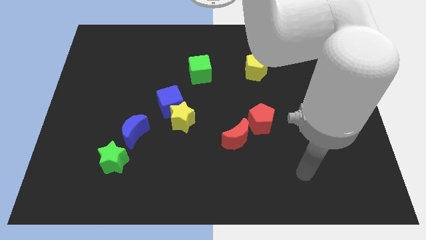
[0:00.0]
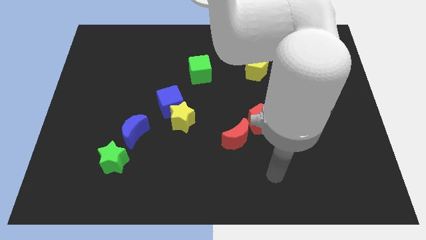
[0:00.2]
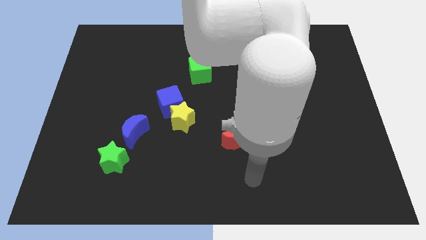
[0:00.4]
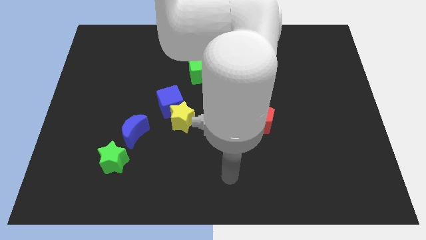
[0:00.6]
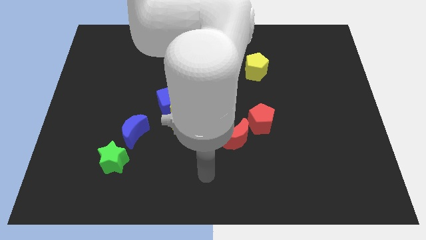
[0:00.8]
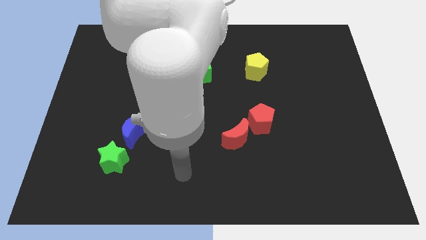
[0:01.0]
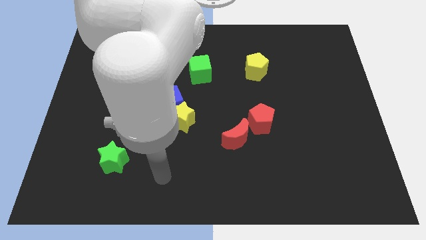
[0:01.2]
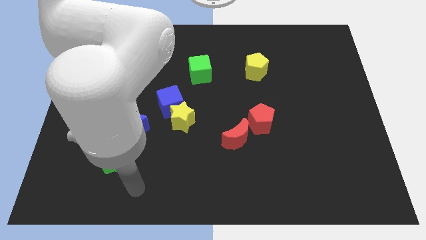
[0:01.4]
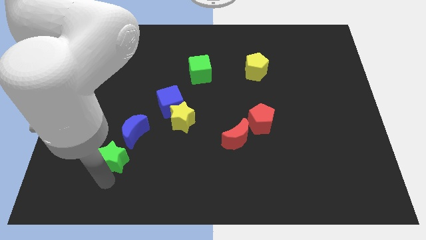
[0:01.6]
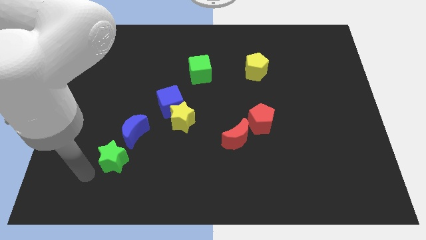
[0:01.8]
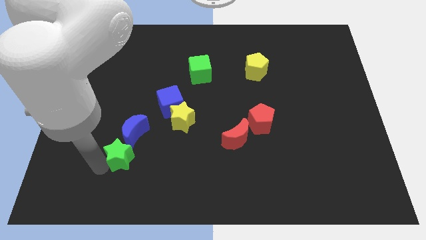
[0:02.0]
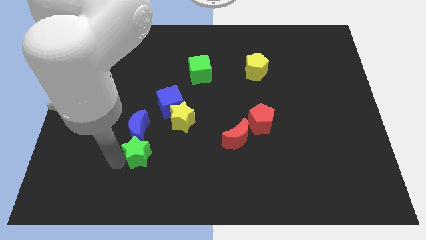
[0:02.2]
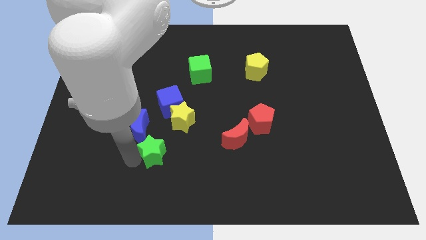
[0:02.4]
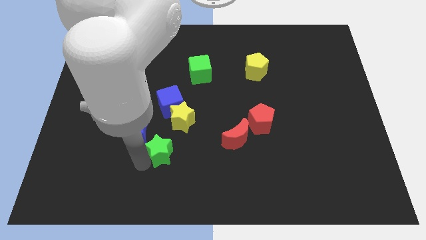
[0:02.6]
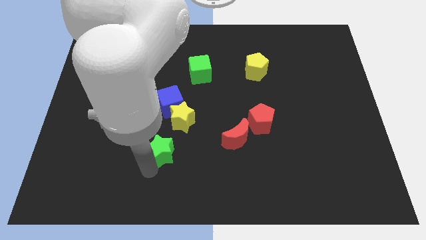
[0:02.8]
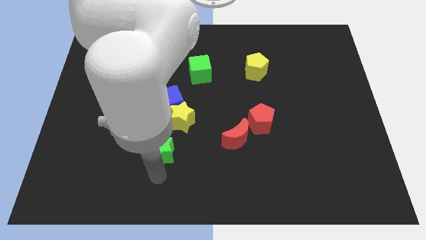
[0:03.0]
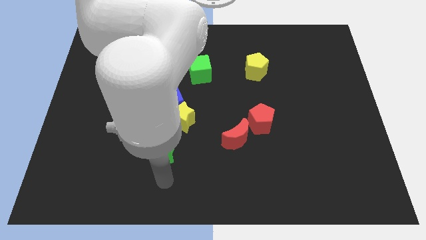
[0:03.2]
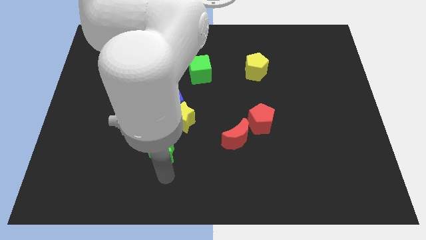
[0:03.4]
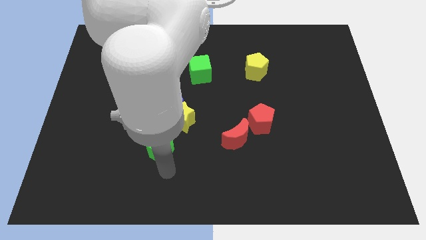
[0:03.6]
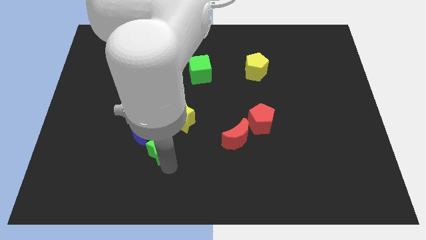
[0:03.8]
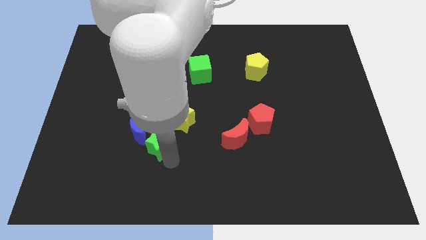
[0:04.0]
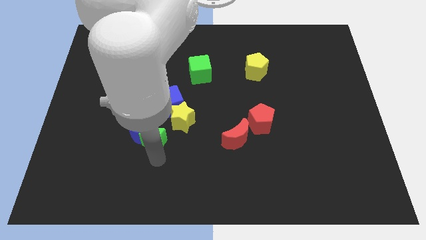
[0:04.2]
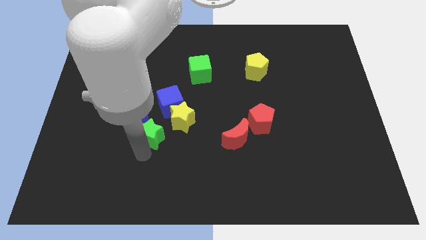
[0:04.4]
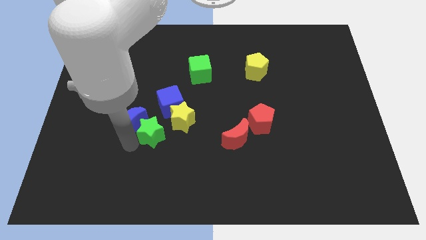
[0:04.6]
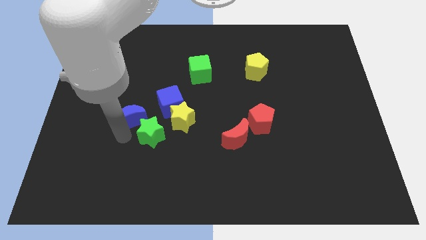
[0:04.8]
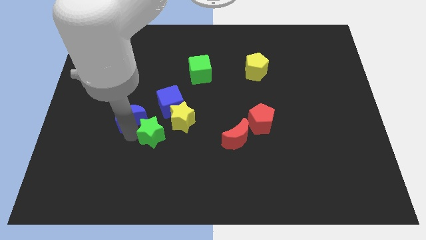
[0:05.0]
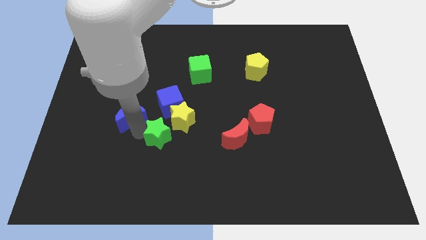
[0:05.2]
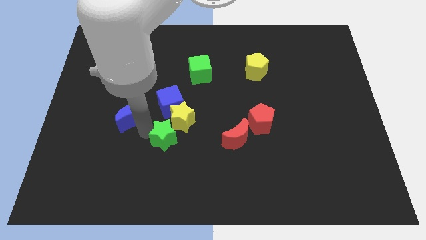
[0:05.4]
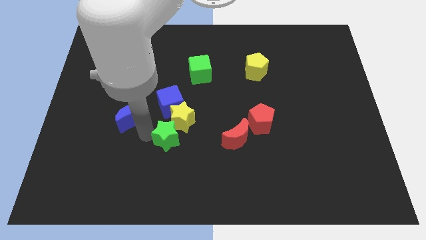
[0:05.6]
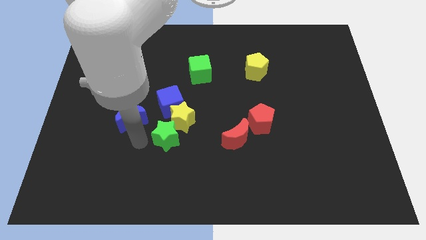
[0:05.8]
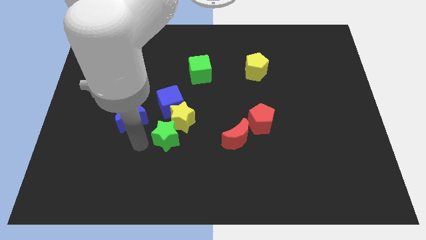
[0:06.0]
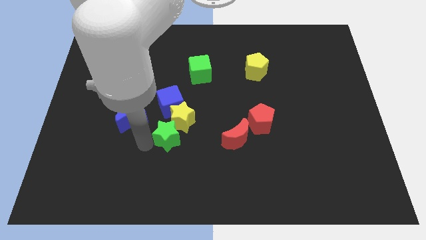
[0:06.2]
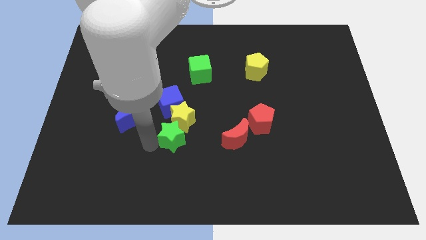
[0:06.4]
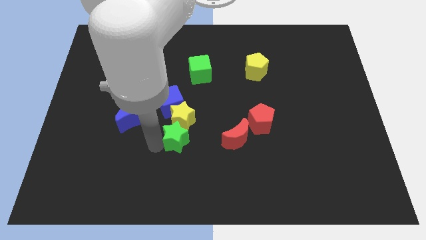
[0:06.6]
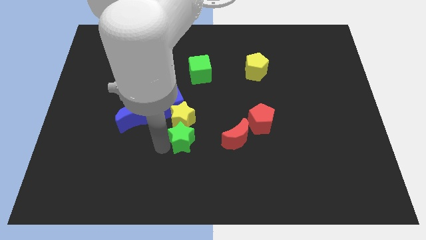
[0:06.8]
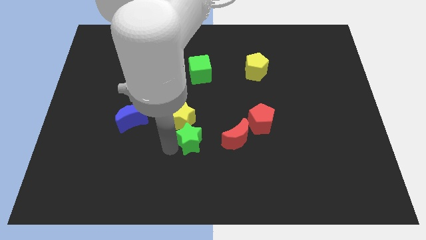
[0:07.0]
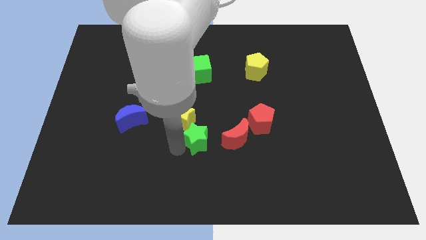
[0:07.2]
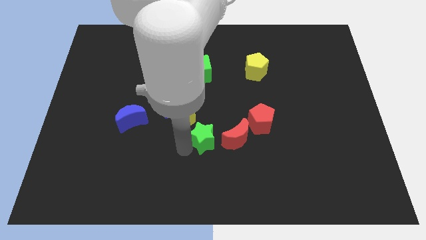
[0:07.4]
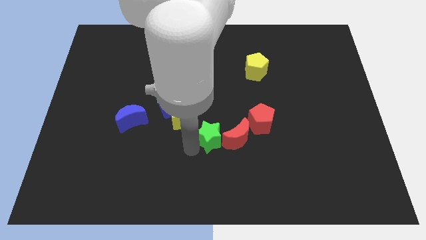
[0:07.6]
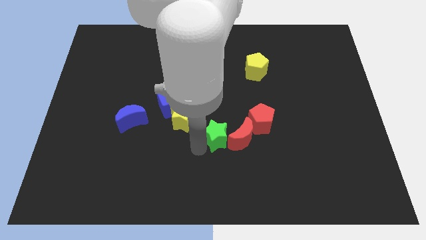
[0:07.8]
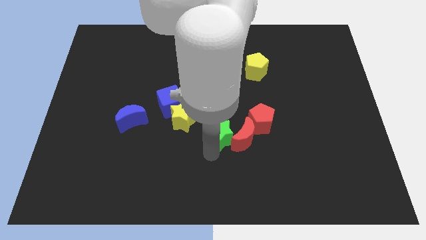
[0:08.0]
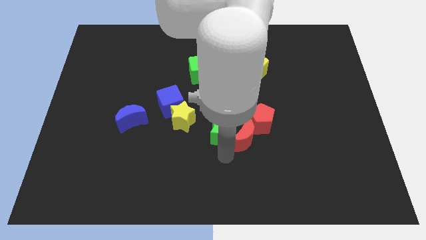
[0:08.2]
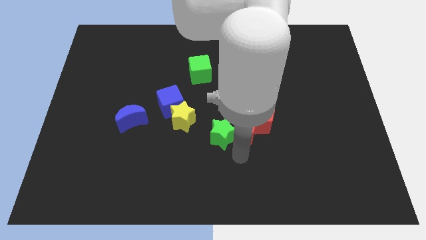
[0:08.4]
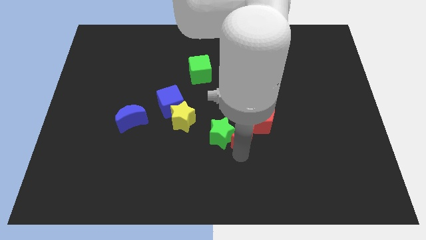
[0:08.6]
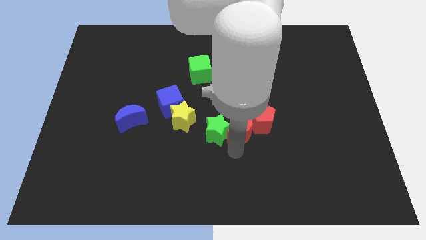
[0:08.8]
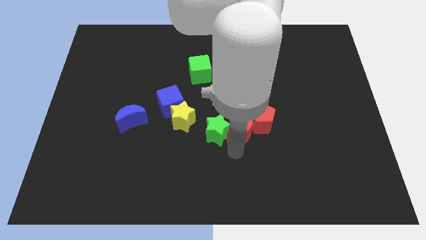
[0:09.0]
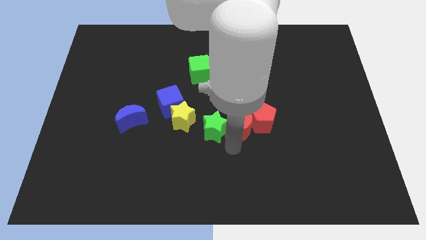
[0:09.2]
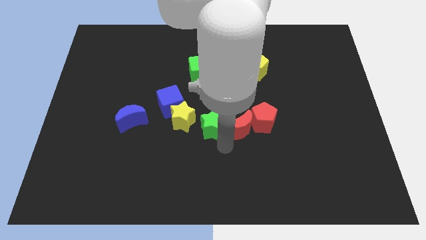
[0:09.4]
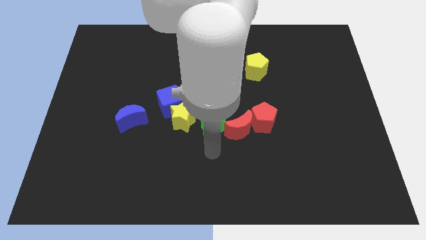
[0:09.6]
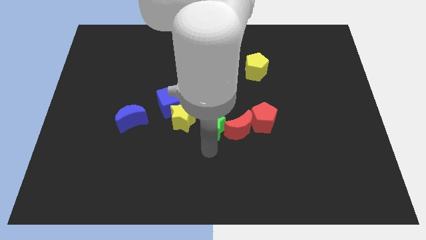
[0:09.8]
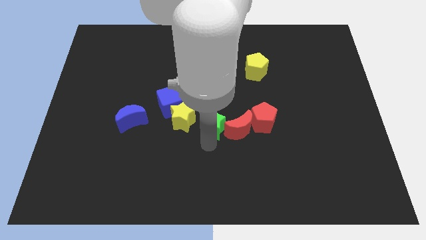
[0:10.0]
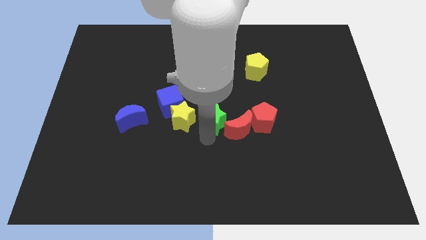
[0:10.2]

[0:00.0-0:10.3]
slide the green star upwards and to the right diagonally

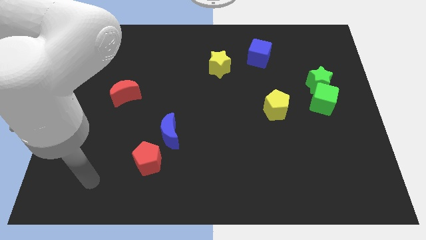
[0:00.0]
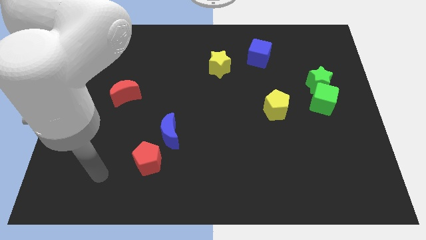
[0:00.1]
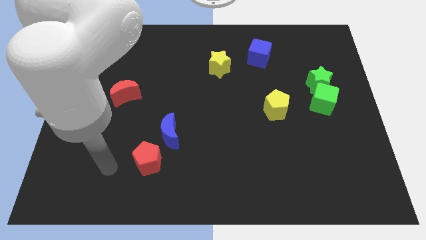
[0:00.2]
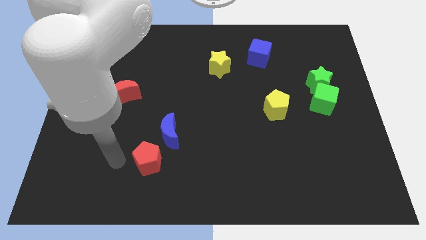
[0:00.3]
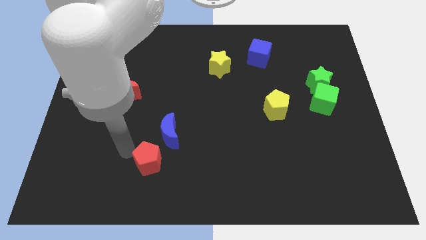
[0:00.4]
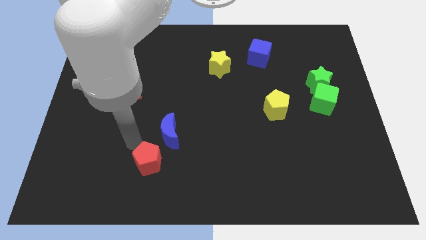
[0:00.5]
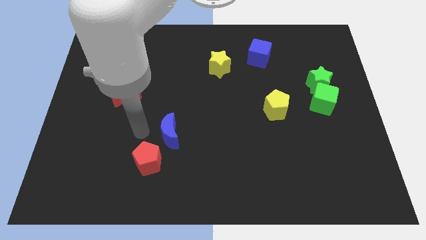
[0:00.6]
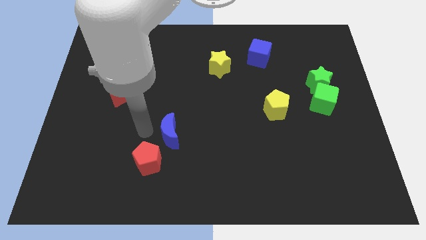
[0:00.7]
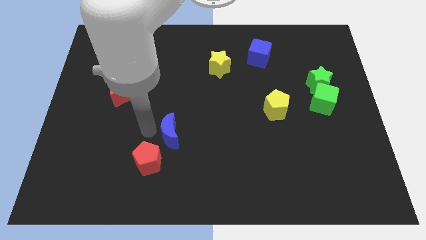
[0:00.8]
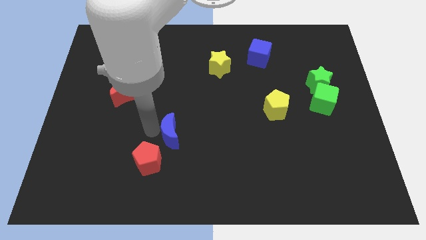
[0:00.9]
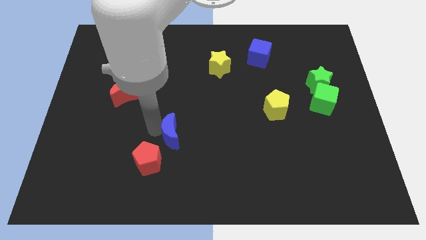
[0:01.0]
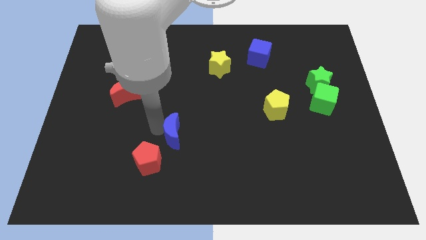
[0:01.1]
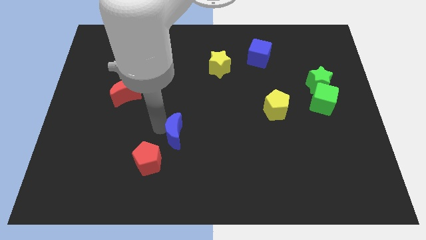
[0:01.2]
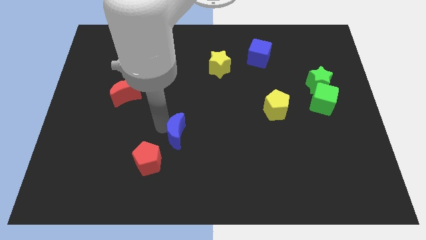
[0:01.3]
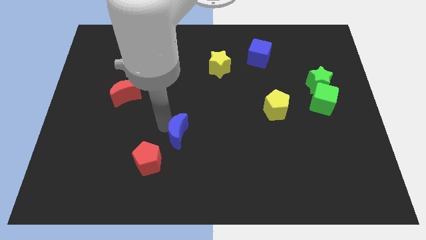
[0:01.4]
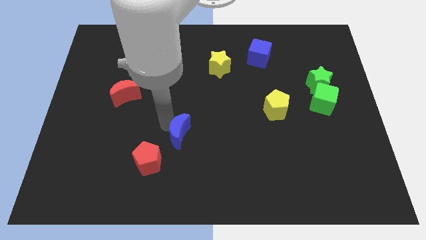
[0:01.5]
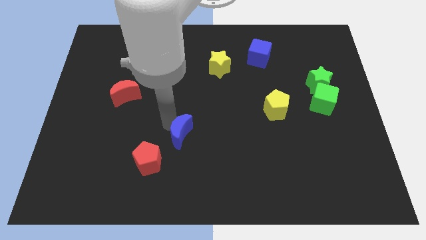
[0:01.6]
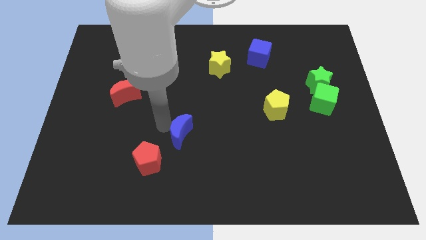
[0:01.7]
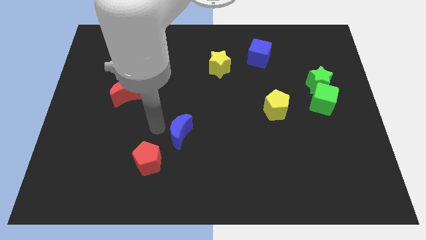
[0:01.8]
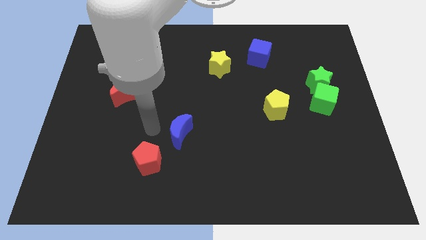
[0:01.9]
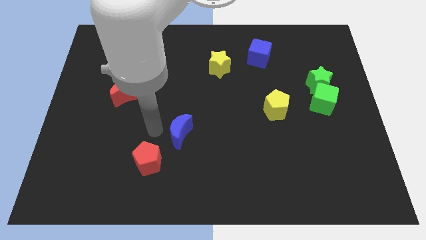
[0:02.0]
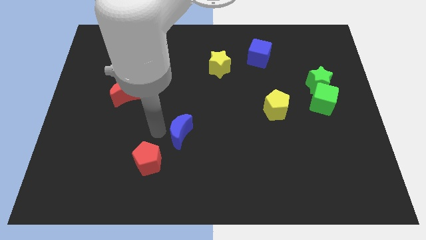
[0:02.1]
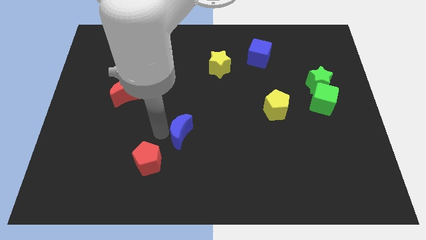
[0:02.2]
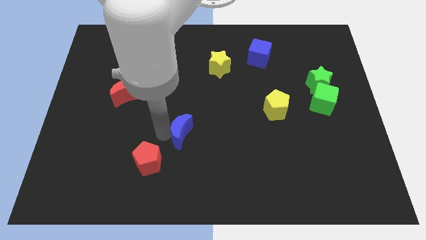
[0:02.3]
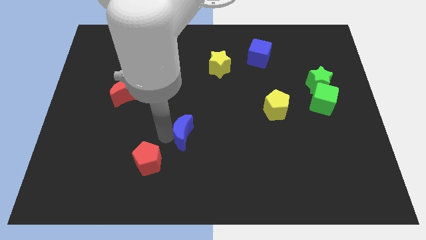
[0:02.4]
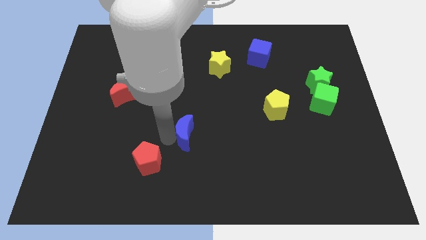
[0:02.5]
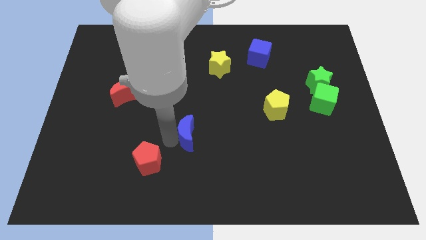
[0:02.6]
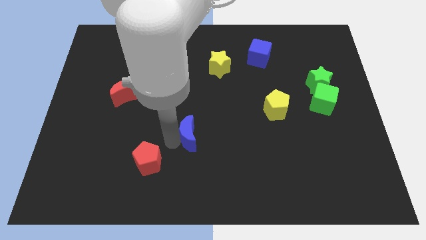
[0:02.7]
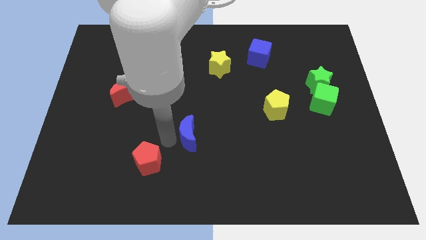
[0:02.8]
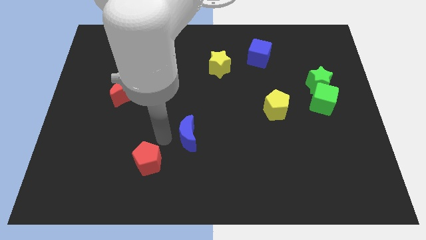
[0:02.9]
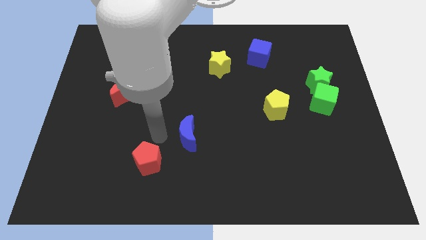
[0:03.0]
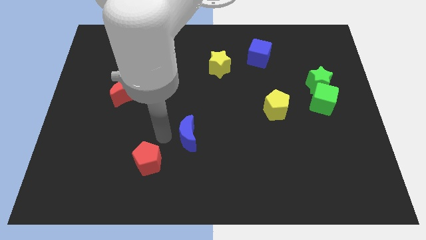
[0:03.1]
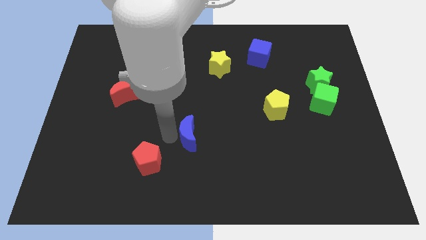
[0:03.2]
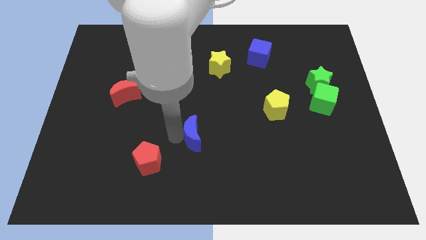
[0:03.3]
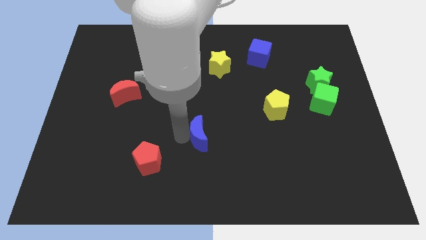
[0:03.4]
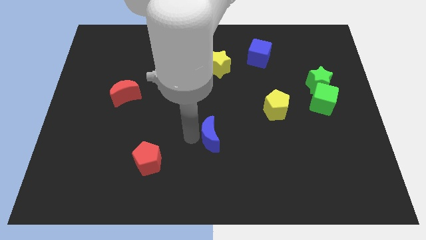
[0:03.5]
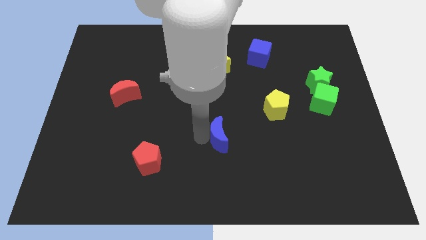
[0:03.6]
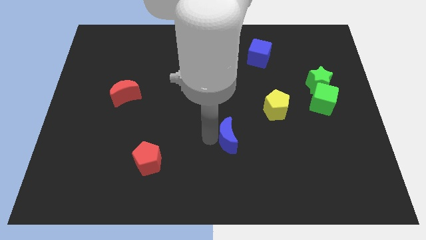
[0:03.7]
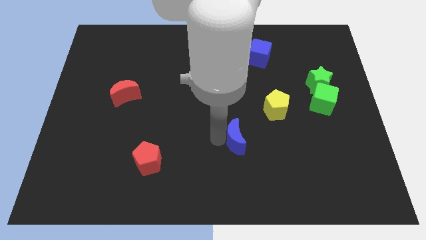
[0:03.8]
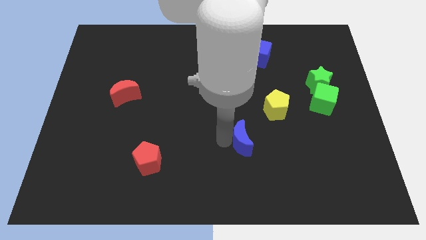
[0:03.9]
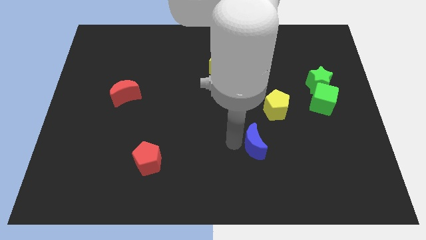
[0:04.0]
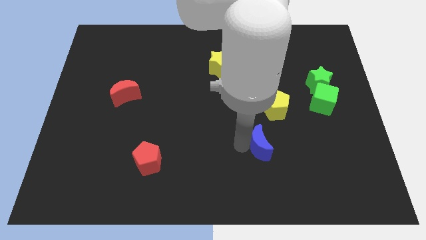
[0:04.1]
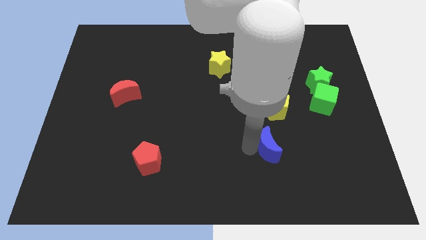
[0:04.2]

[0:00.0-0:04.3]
move the blue moon right
